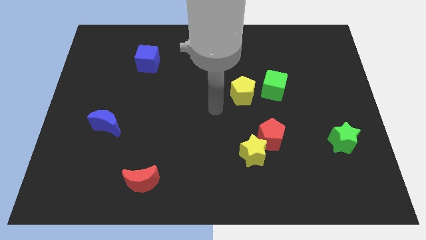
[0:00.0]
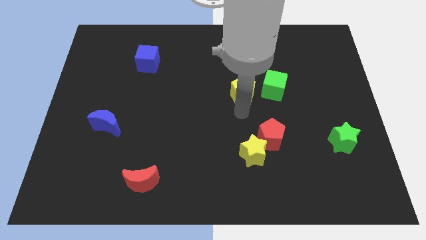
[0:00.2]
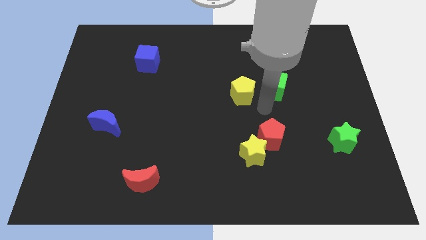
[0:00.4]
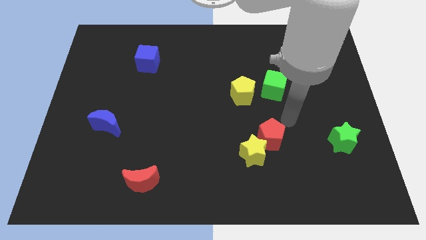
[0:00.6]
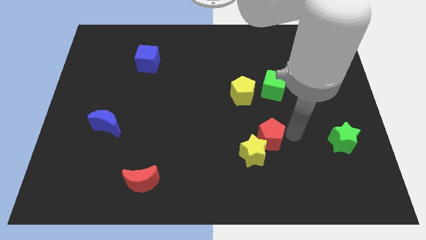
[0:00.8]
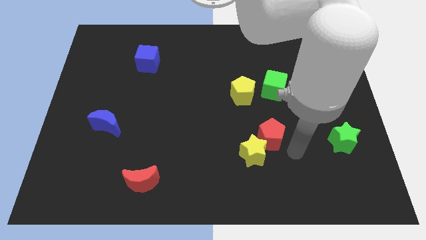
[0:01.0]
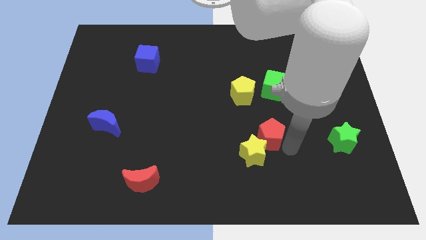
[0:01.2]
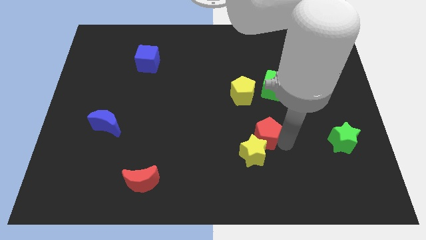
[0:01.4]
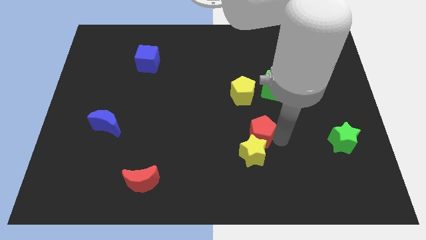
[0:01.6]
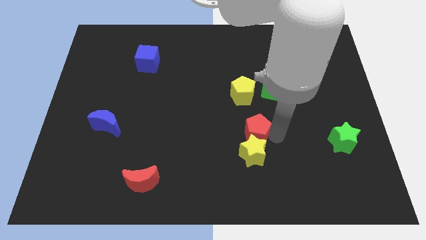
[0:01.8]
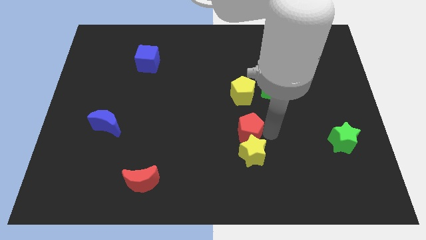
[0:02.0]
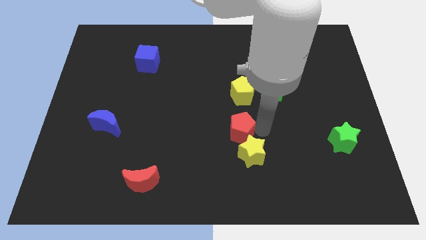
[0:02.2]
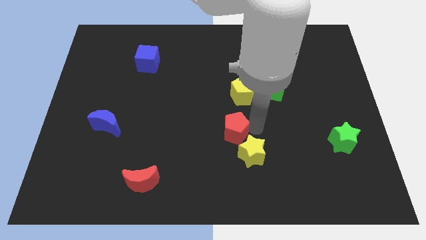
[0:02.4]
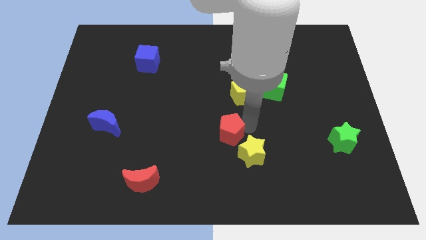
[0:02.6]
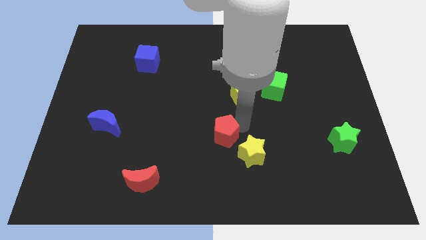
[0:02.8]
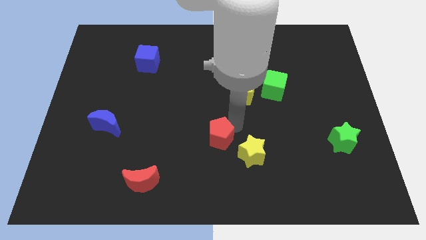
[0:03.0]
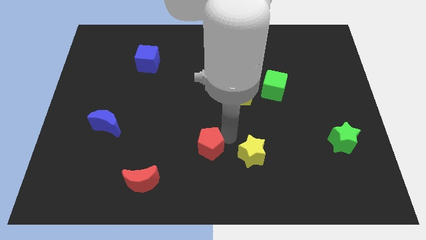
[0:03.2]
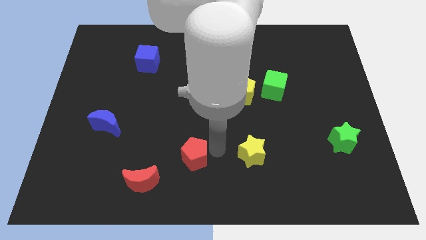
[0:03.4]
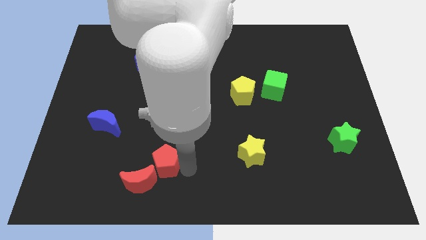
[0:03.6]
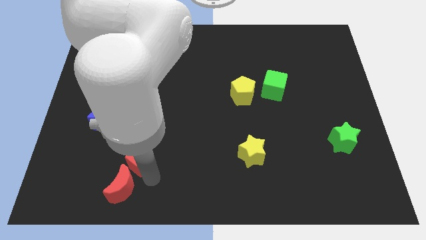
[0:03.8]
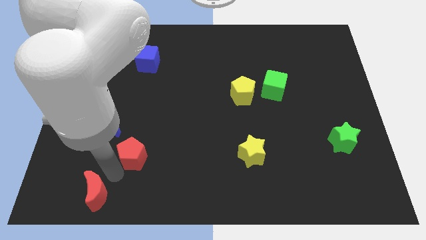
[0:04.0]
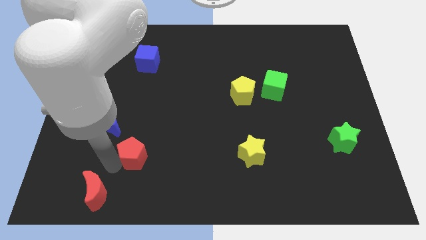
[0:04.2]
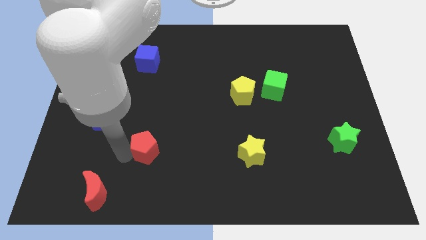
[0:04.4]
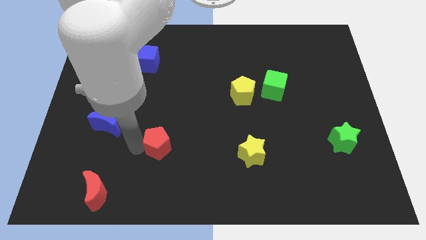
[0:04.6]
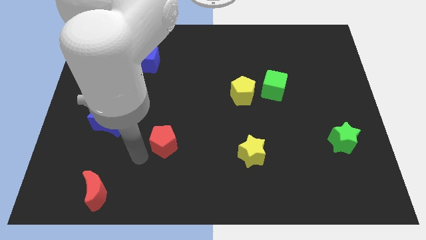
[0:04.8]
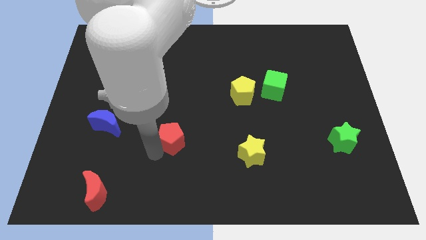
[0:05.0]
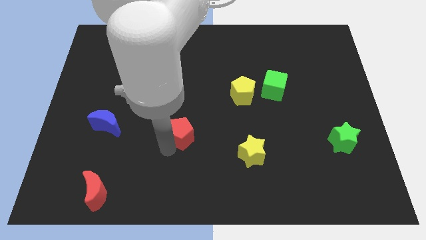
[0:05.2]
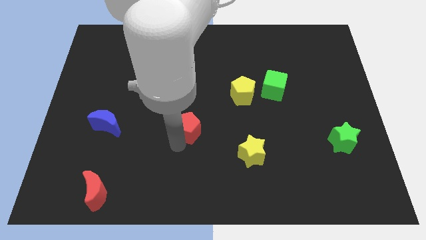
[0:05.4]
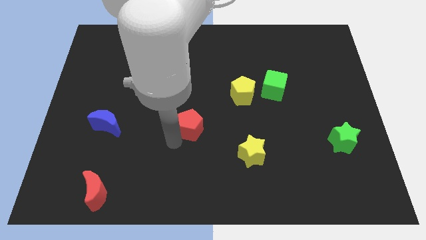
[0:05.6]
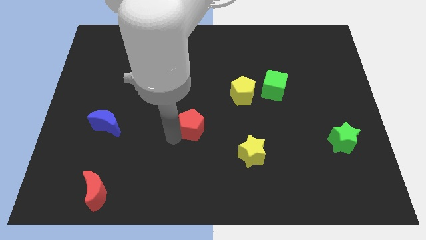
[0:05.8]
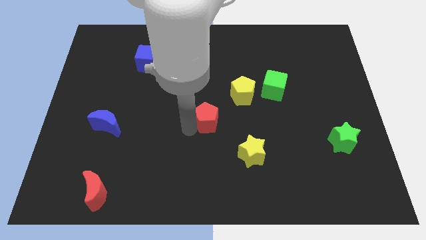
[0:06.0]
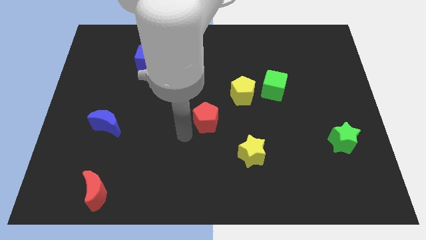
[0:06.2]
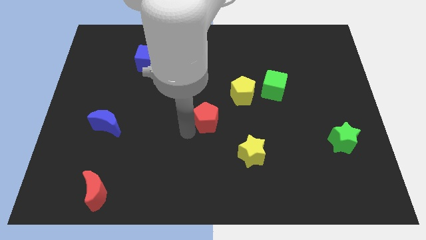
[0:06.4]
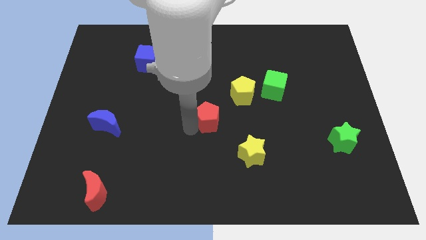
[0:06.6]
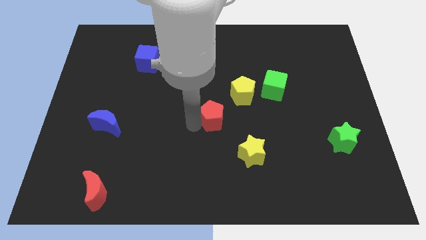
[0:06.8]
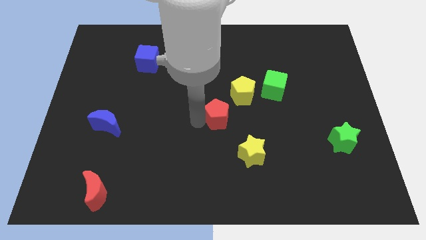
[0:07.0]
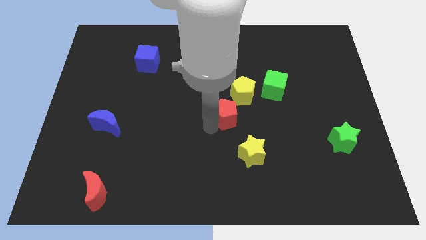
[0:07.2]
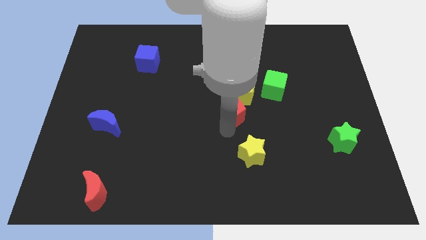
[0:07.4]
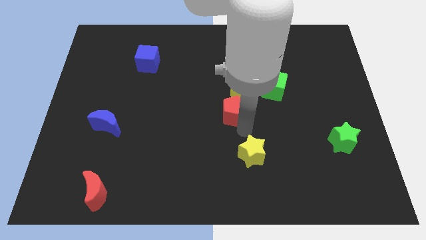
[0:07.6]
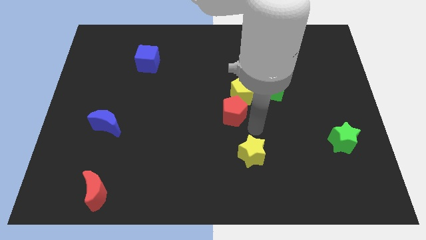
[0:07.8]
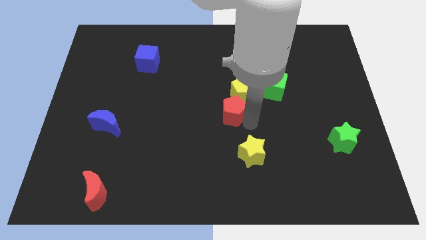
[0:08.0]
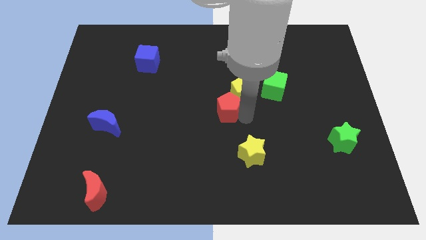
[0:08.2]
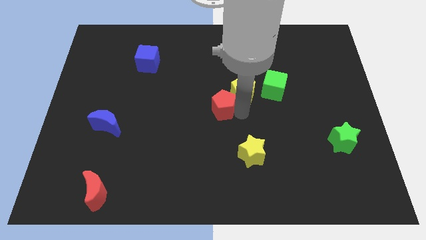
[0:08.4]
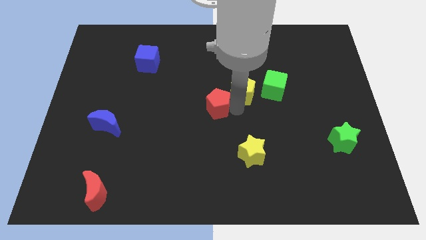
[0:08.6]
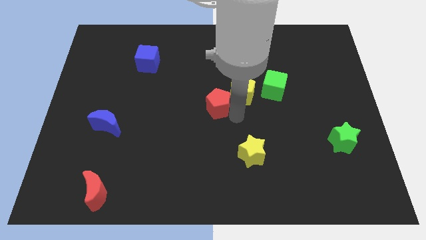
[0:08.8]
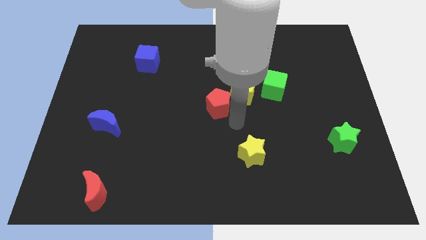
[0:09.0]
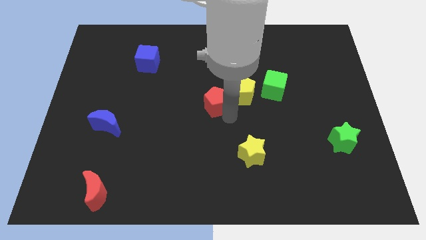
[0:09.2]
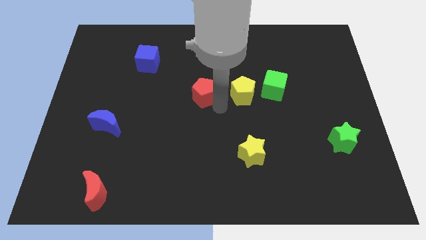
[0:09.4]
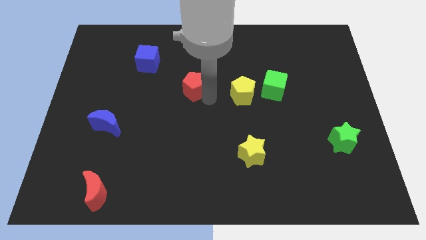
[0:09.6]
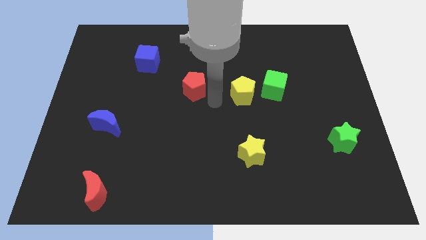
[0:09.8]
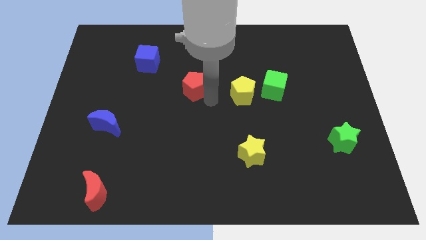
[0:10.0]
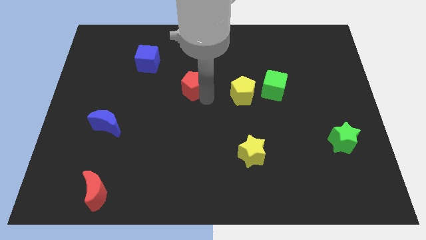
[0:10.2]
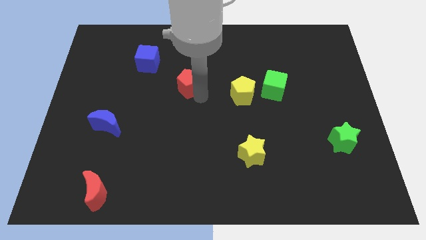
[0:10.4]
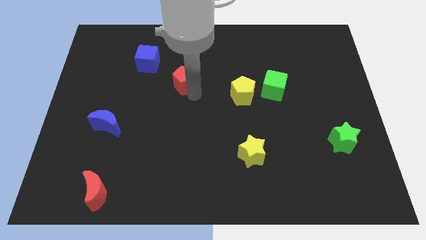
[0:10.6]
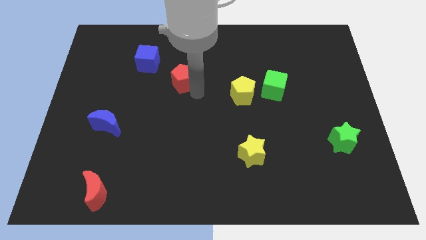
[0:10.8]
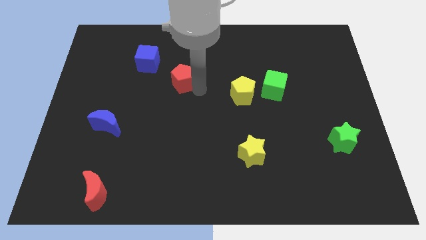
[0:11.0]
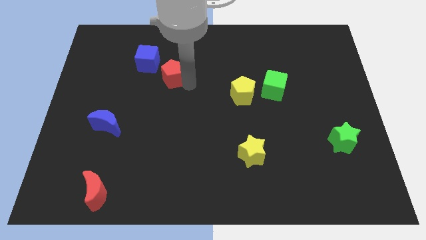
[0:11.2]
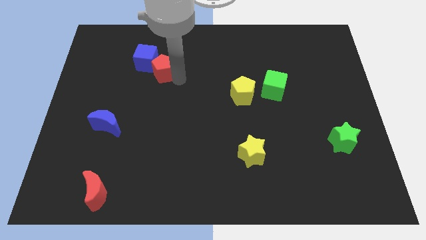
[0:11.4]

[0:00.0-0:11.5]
move the red pentagon next to the blue cube

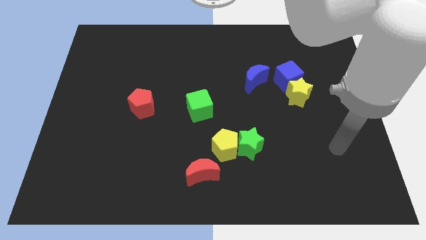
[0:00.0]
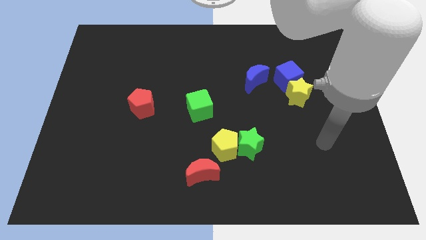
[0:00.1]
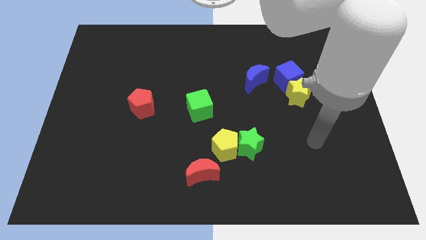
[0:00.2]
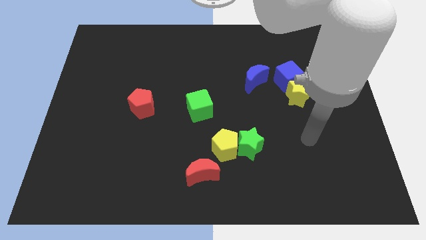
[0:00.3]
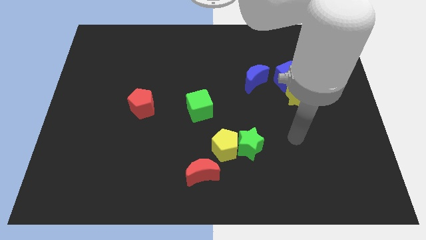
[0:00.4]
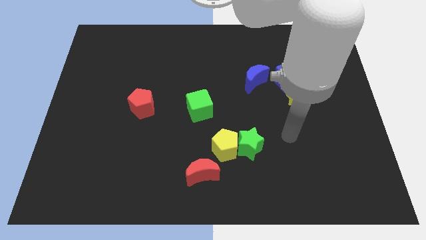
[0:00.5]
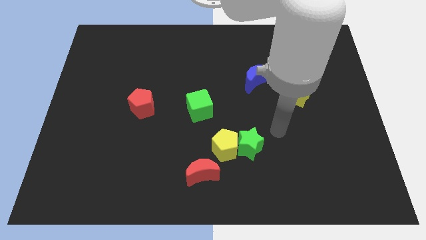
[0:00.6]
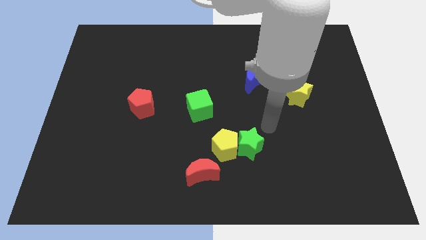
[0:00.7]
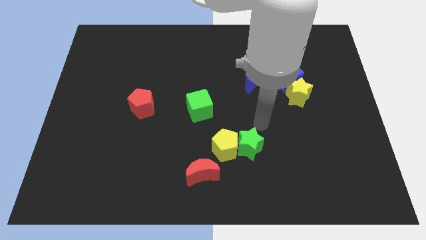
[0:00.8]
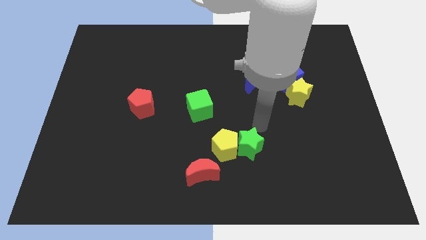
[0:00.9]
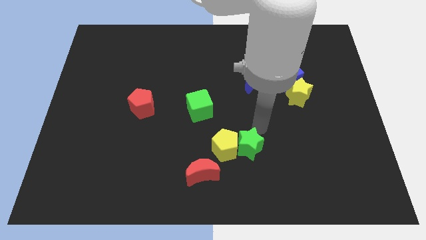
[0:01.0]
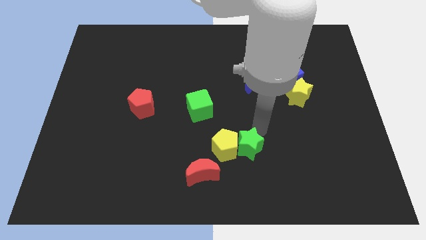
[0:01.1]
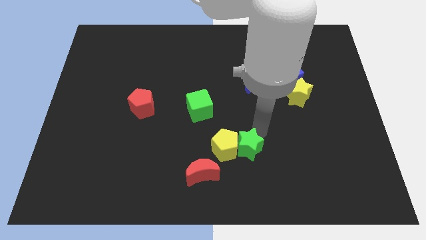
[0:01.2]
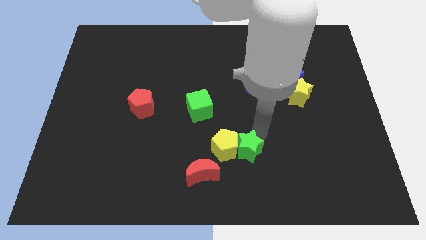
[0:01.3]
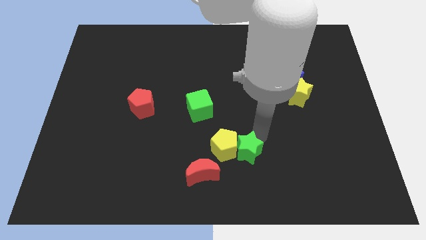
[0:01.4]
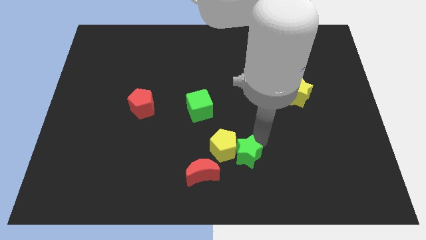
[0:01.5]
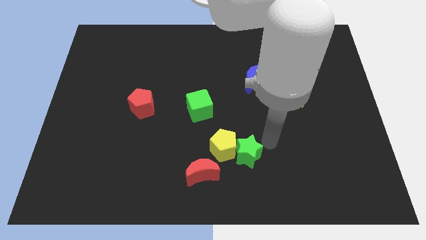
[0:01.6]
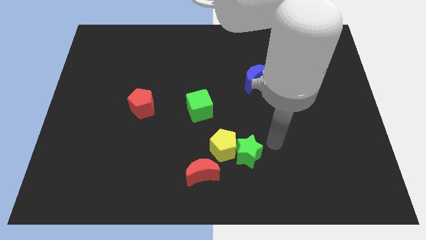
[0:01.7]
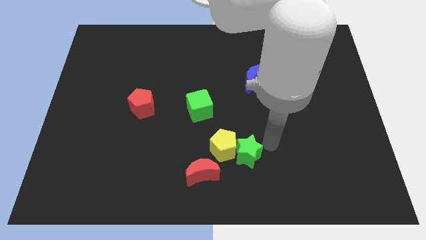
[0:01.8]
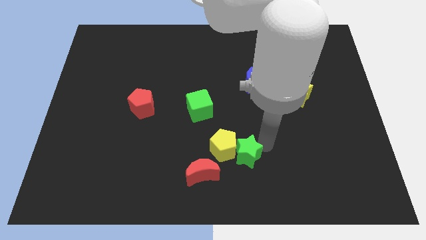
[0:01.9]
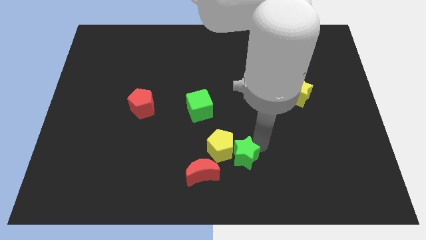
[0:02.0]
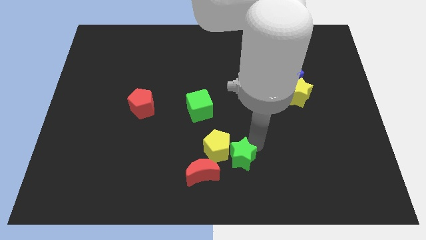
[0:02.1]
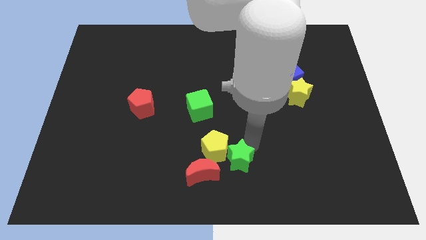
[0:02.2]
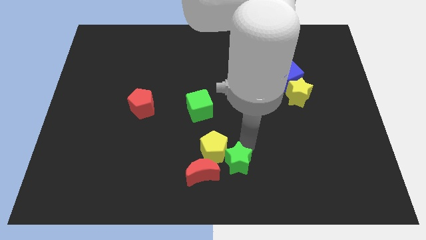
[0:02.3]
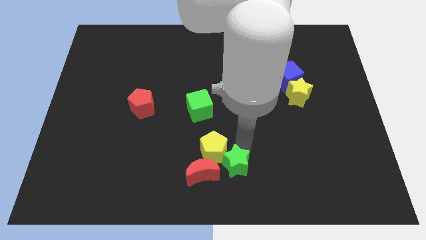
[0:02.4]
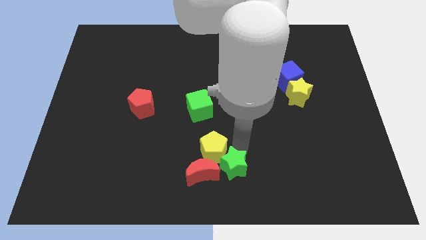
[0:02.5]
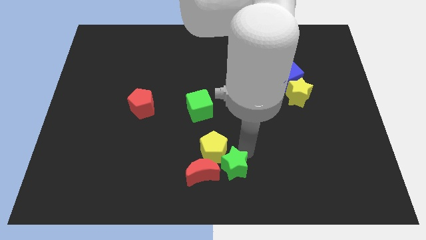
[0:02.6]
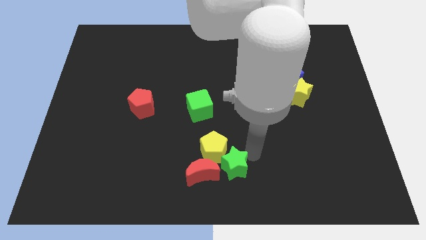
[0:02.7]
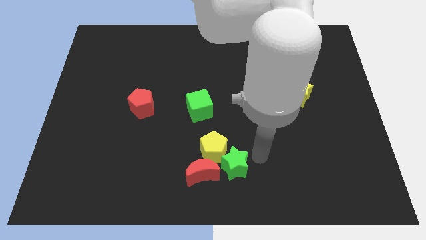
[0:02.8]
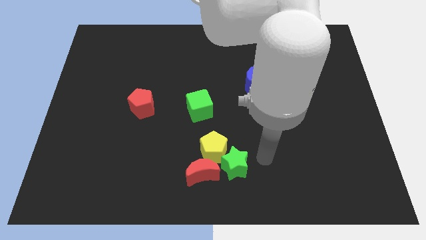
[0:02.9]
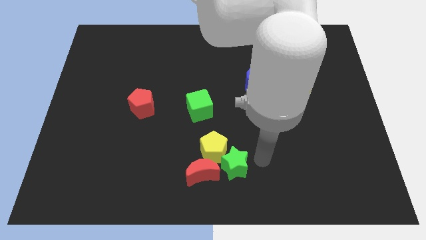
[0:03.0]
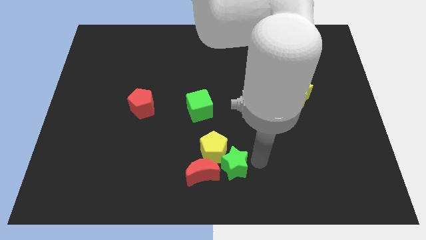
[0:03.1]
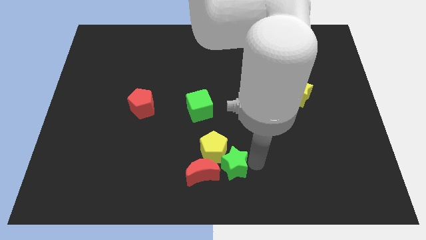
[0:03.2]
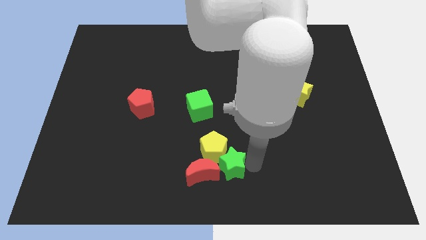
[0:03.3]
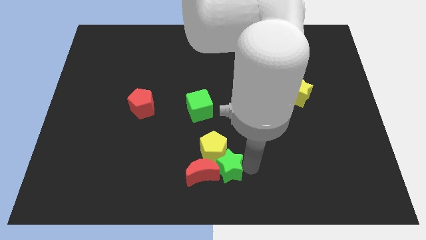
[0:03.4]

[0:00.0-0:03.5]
put the green star to the red moon
